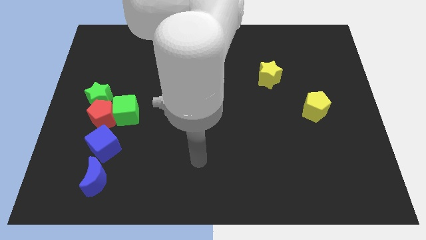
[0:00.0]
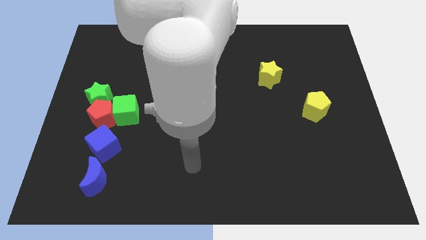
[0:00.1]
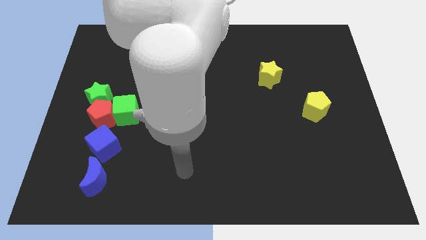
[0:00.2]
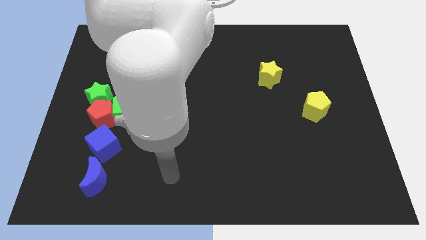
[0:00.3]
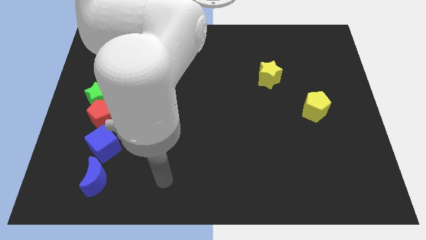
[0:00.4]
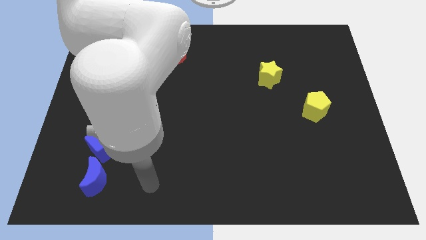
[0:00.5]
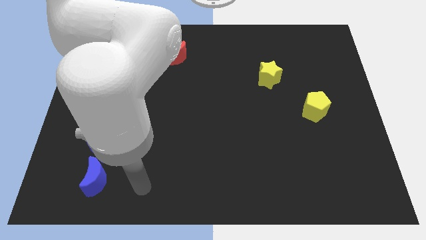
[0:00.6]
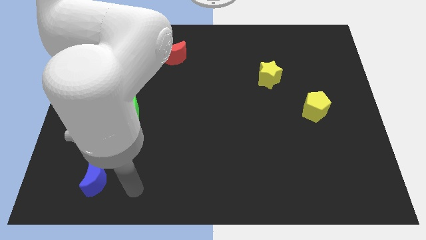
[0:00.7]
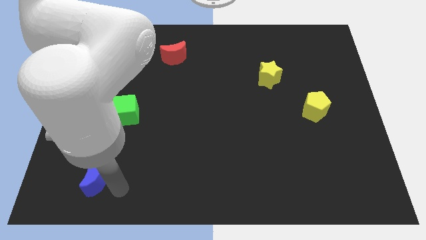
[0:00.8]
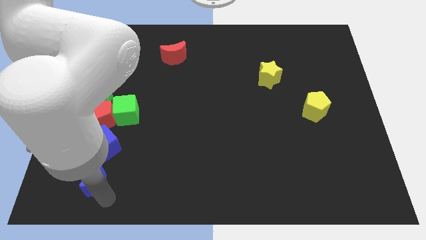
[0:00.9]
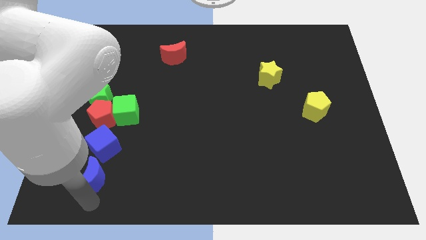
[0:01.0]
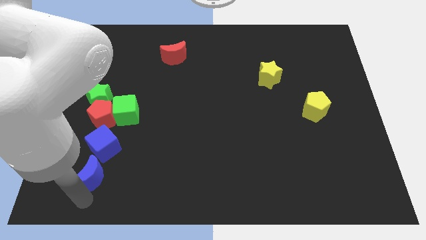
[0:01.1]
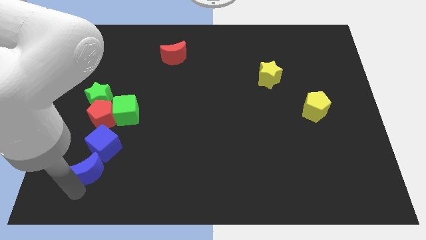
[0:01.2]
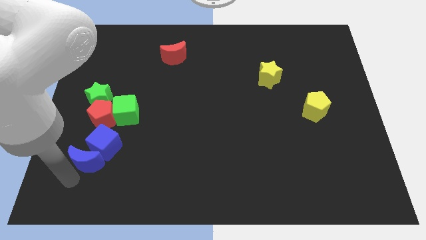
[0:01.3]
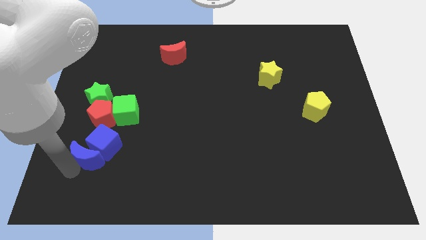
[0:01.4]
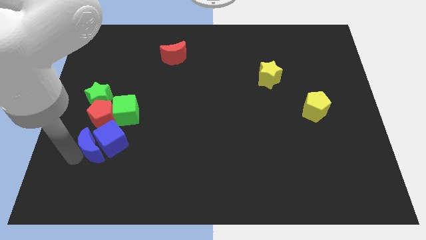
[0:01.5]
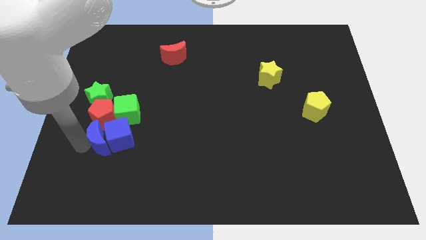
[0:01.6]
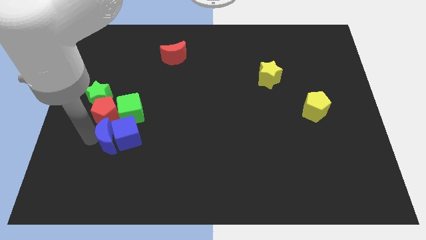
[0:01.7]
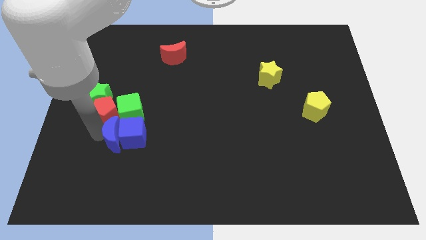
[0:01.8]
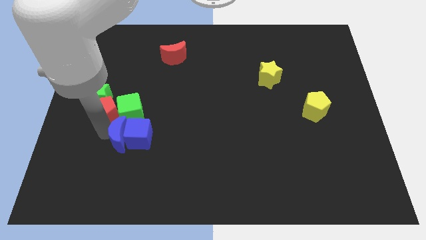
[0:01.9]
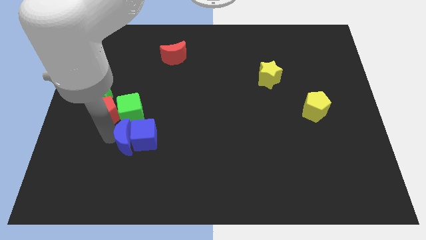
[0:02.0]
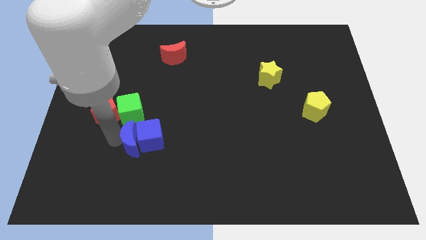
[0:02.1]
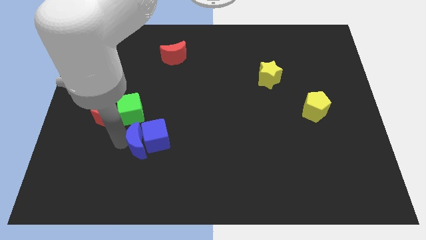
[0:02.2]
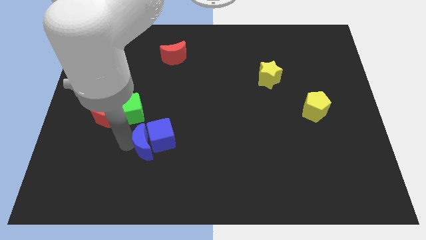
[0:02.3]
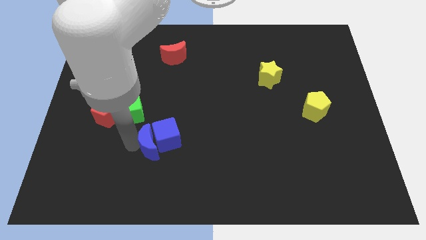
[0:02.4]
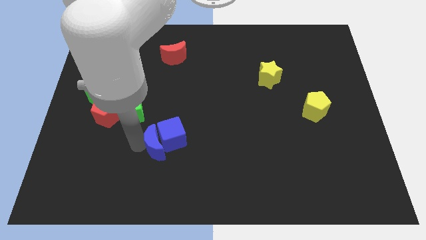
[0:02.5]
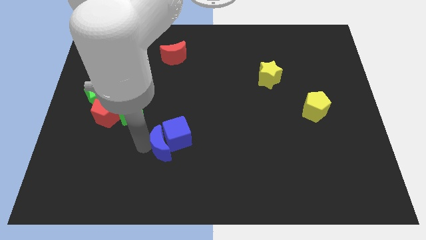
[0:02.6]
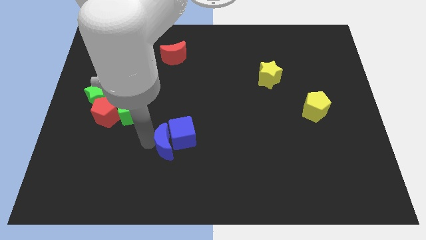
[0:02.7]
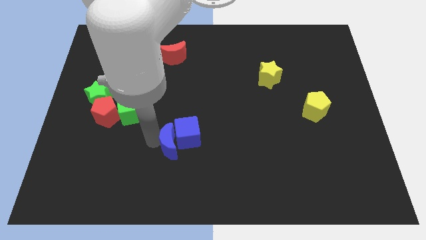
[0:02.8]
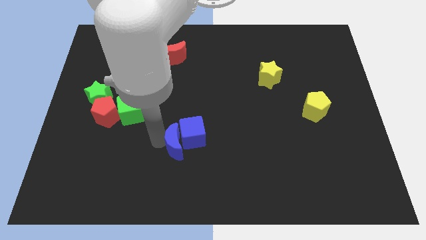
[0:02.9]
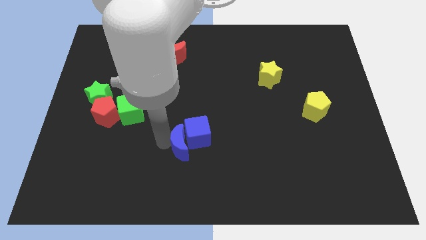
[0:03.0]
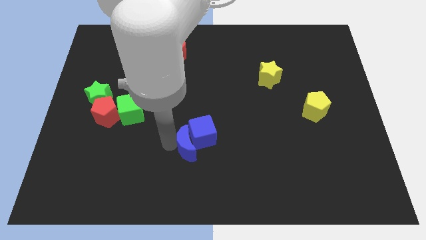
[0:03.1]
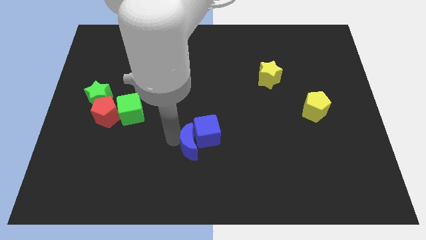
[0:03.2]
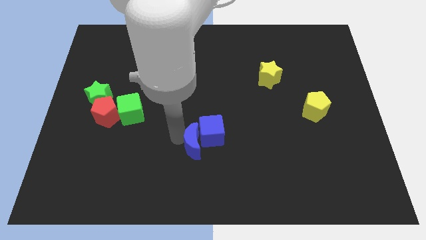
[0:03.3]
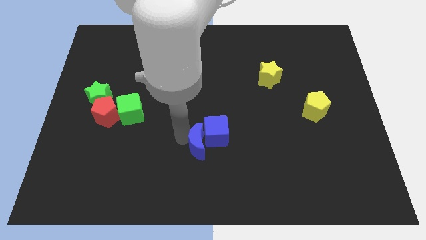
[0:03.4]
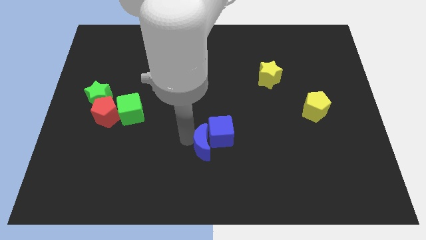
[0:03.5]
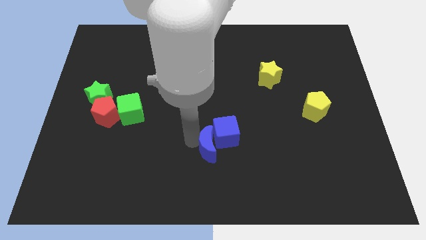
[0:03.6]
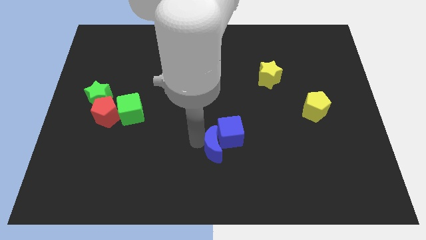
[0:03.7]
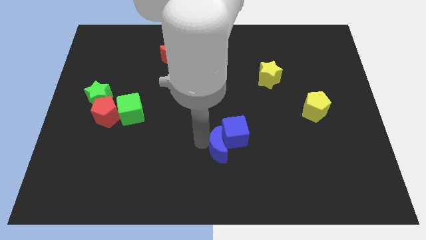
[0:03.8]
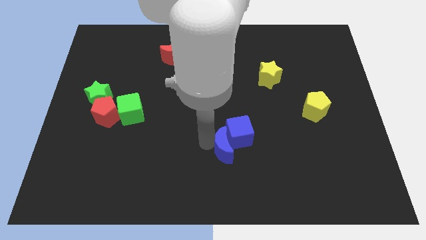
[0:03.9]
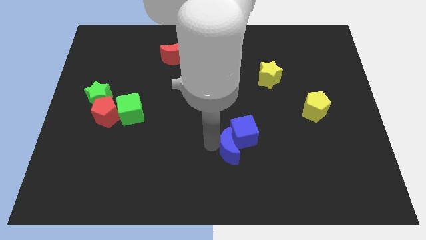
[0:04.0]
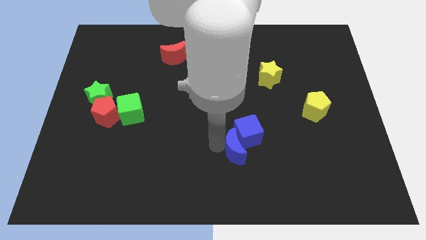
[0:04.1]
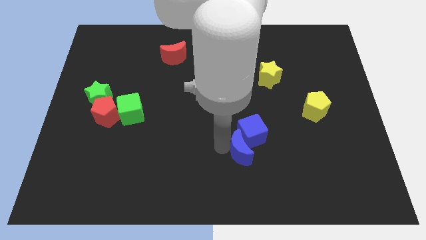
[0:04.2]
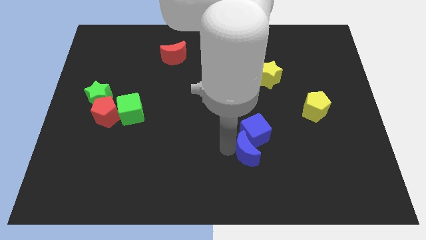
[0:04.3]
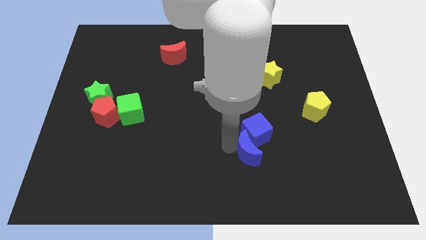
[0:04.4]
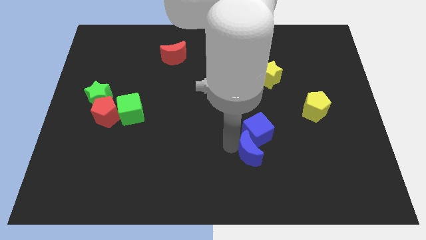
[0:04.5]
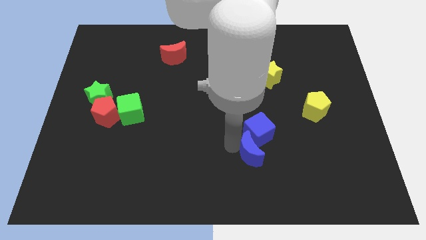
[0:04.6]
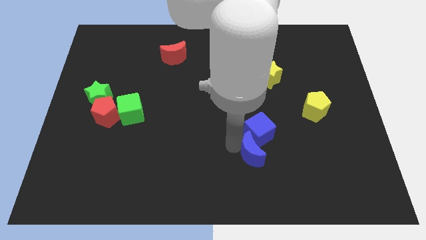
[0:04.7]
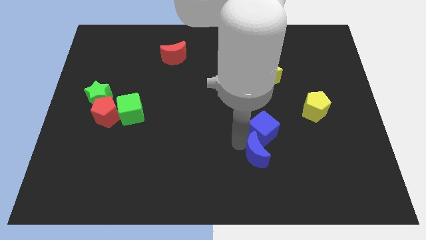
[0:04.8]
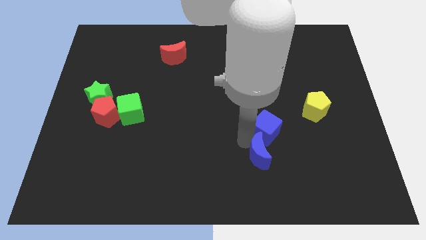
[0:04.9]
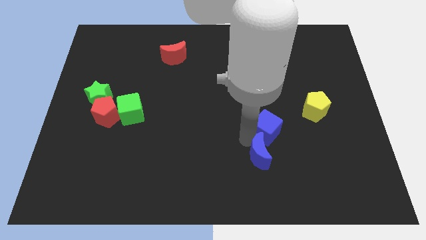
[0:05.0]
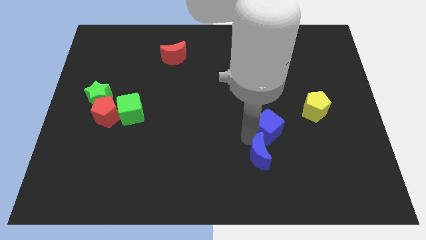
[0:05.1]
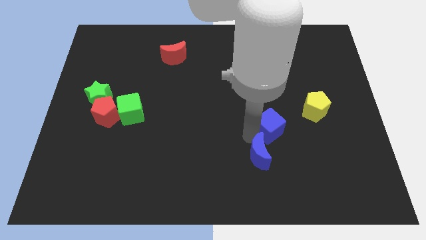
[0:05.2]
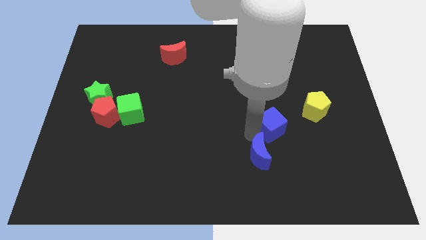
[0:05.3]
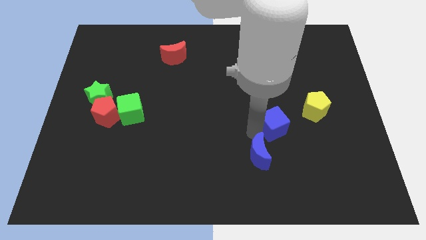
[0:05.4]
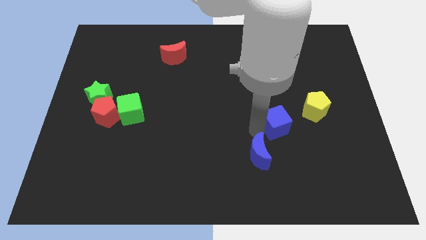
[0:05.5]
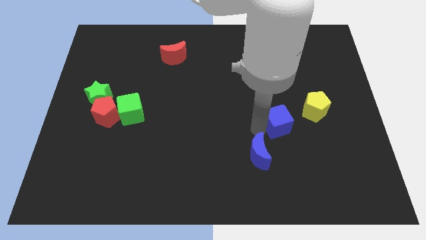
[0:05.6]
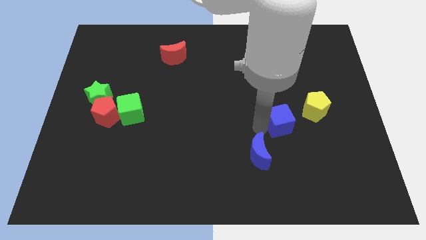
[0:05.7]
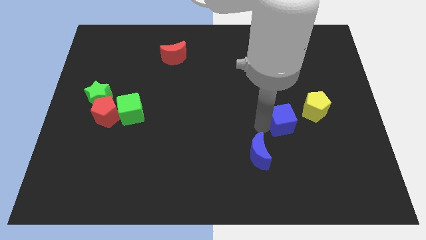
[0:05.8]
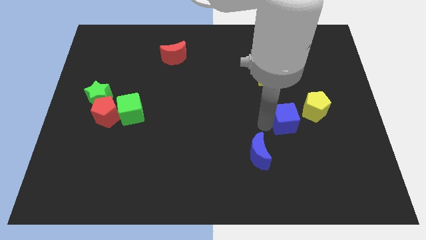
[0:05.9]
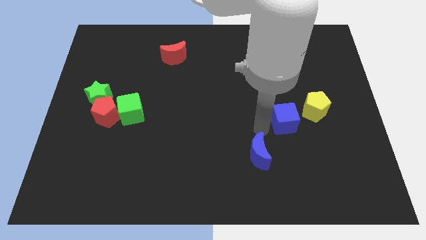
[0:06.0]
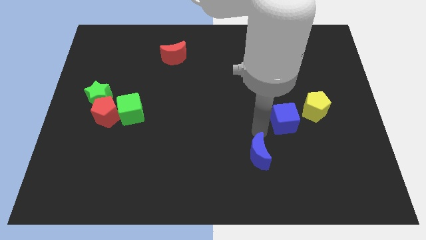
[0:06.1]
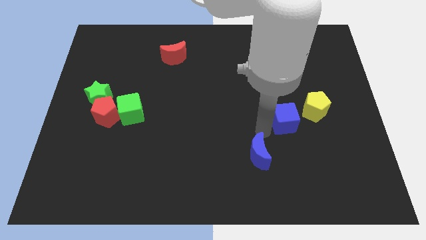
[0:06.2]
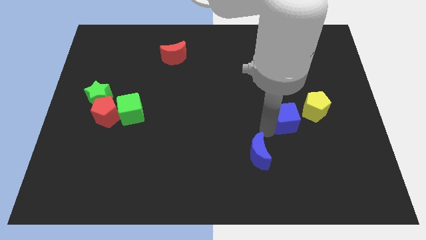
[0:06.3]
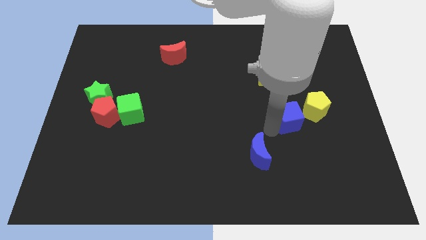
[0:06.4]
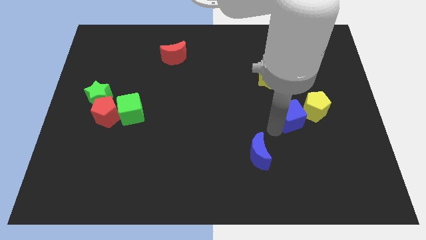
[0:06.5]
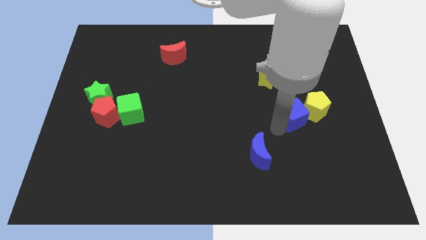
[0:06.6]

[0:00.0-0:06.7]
move the blue cube next to the yellow pentagon
